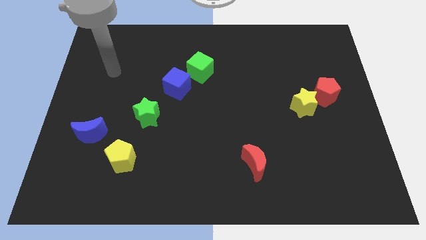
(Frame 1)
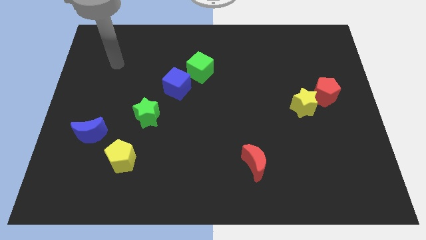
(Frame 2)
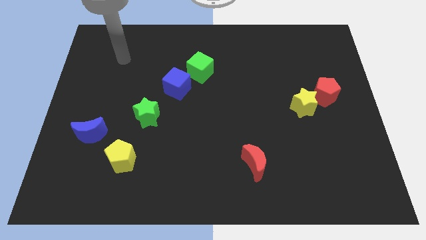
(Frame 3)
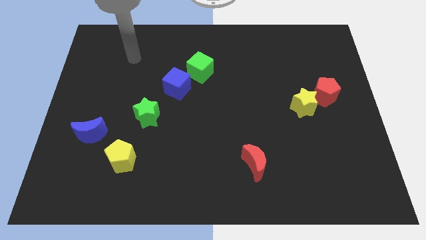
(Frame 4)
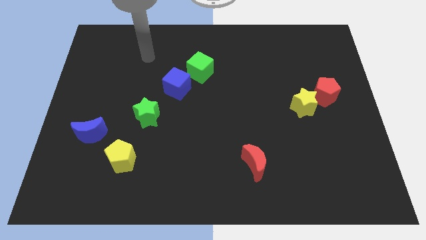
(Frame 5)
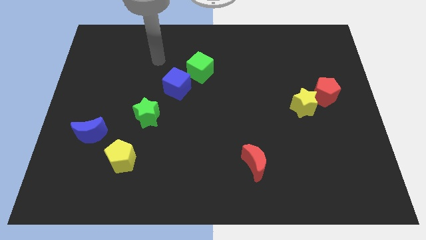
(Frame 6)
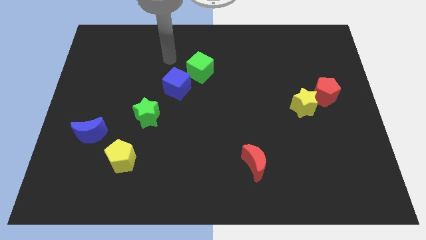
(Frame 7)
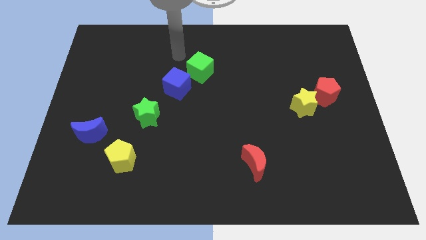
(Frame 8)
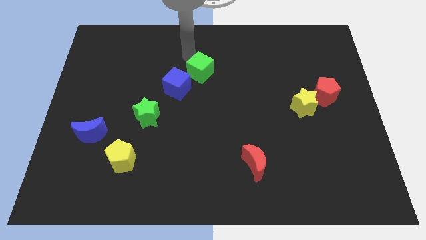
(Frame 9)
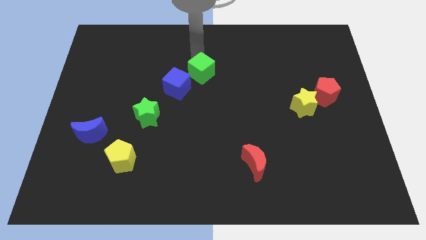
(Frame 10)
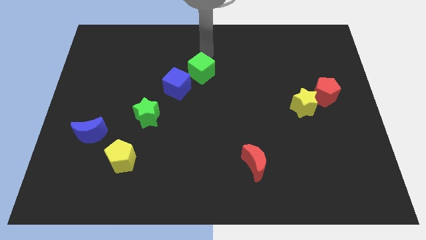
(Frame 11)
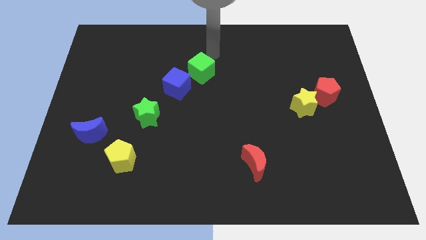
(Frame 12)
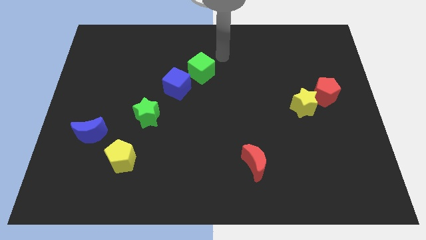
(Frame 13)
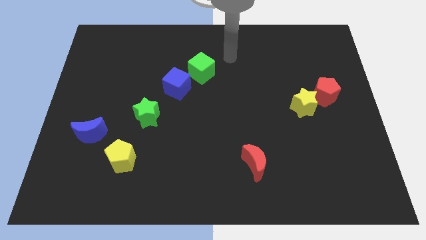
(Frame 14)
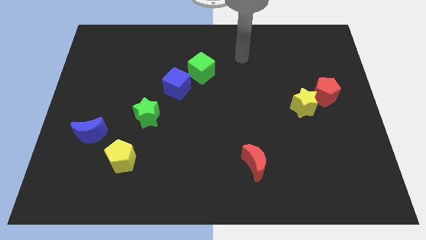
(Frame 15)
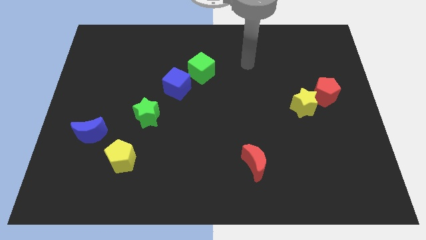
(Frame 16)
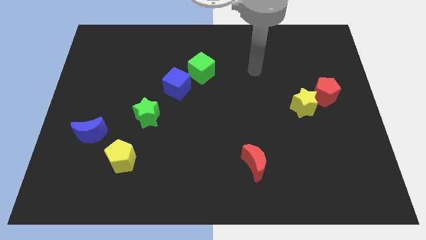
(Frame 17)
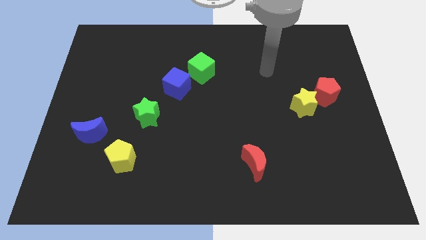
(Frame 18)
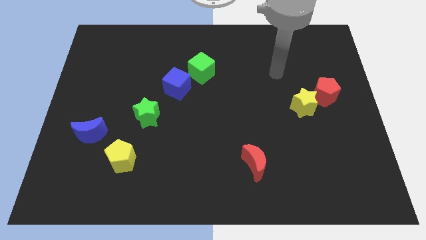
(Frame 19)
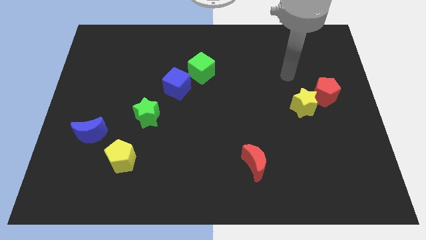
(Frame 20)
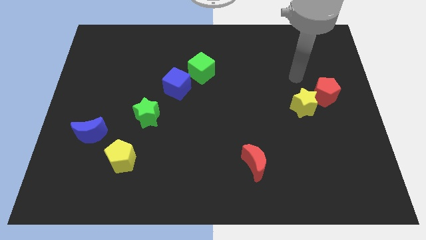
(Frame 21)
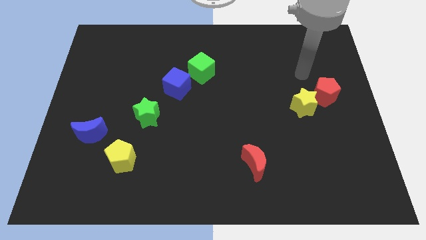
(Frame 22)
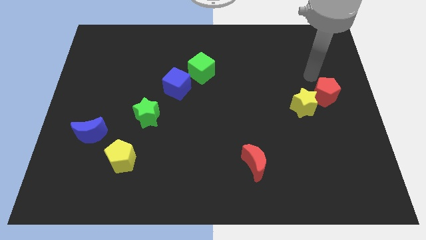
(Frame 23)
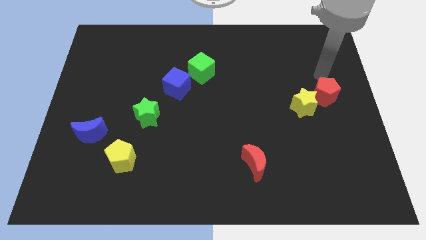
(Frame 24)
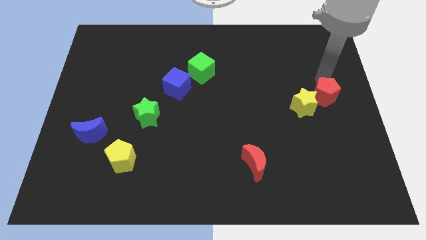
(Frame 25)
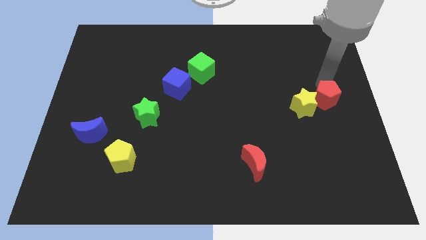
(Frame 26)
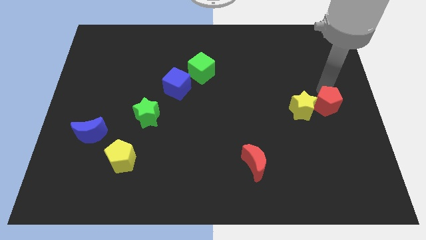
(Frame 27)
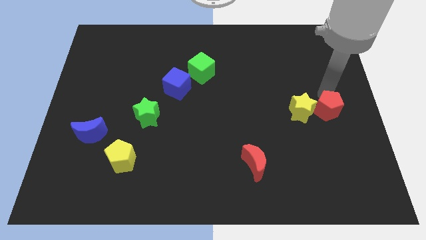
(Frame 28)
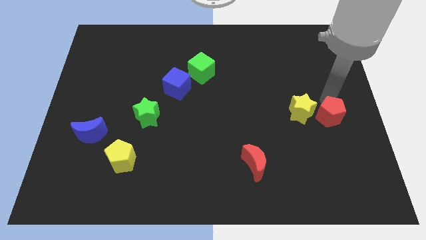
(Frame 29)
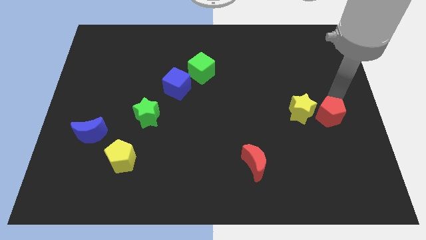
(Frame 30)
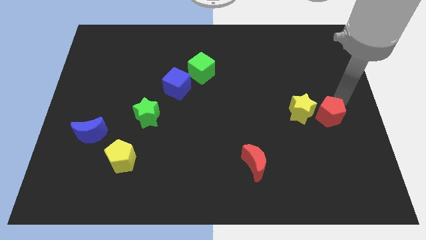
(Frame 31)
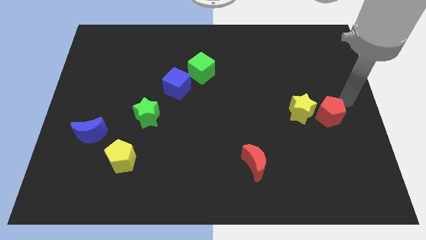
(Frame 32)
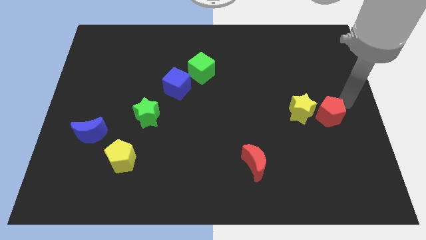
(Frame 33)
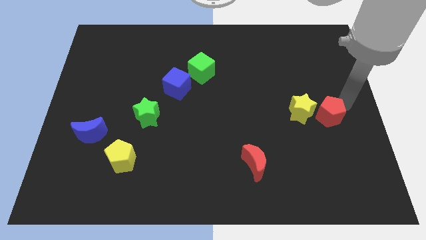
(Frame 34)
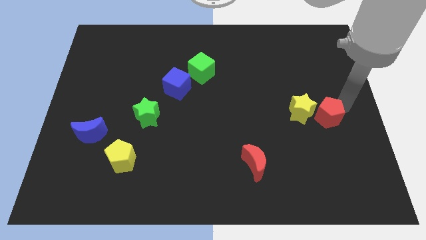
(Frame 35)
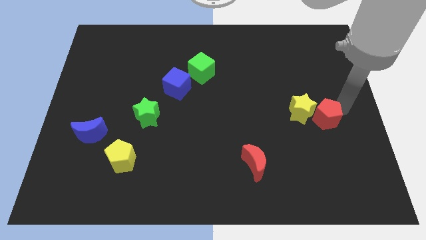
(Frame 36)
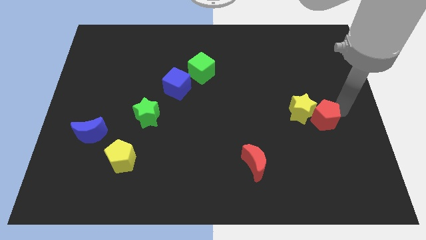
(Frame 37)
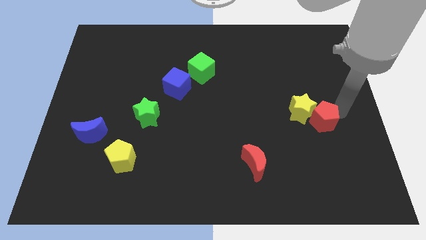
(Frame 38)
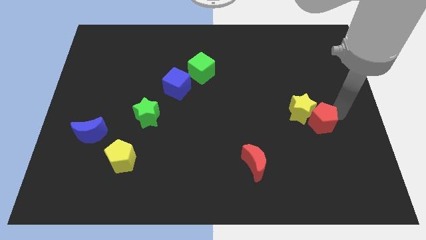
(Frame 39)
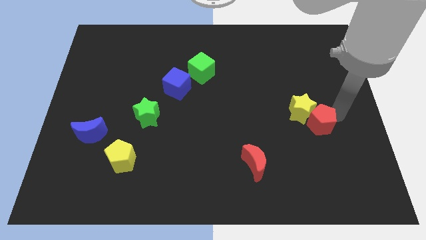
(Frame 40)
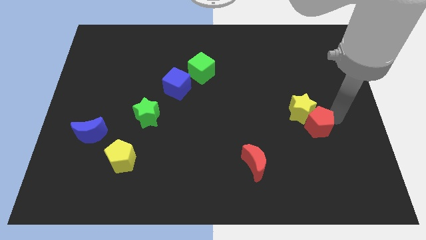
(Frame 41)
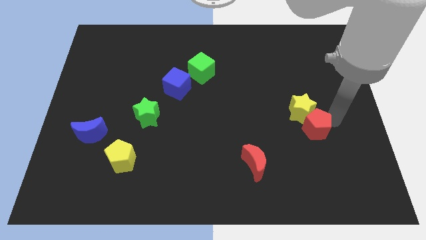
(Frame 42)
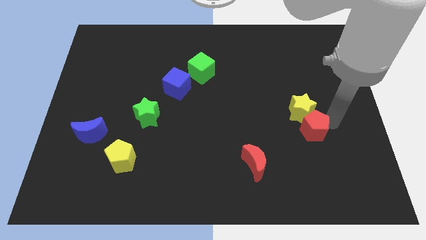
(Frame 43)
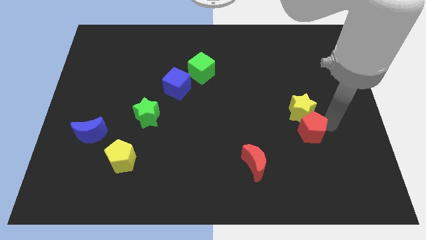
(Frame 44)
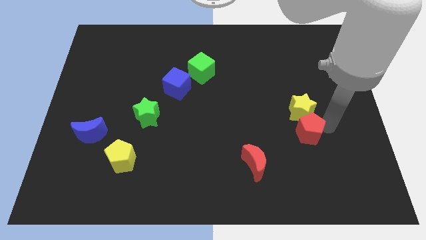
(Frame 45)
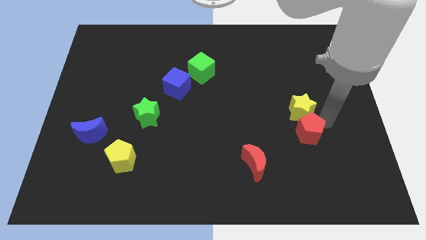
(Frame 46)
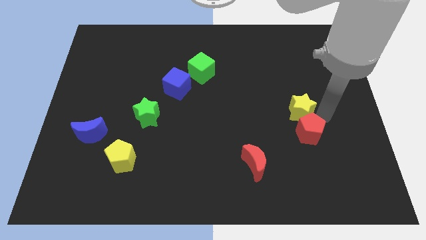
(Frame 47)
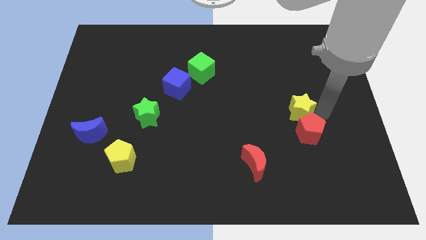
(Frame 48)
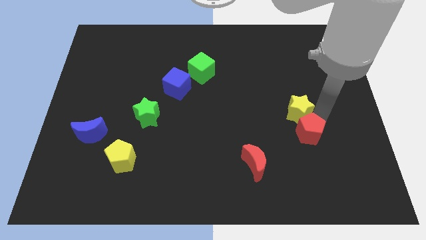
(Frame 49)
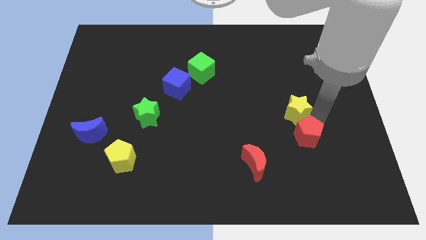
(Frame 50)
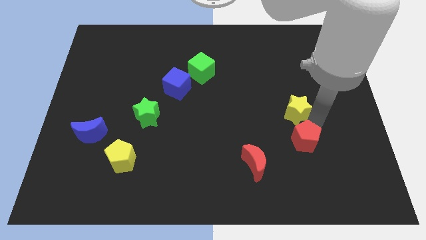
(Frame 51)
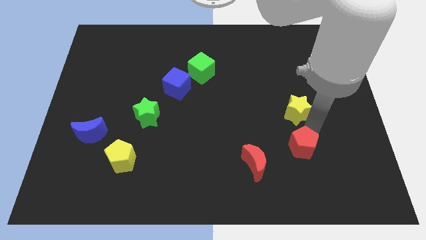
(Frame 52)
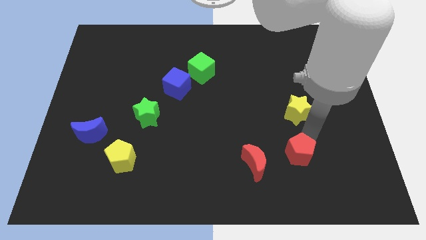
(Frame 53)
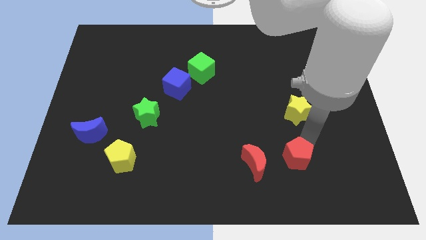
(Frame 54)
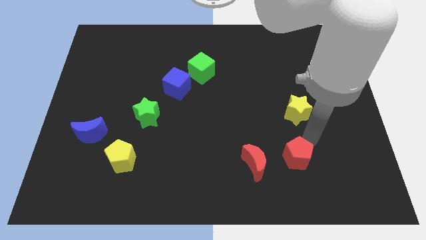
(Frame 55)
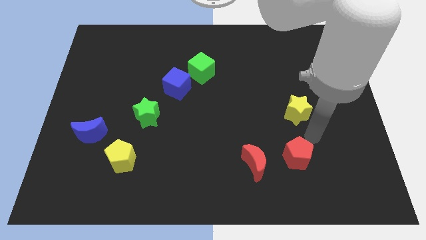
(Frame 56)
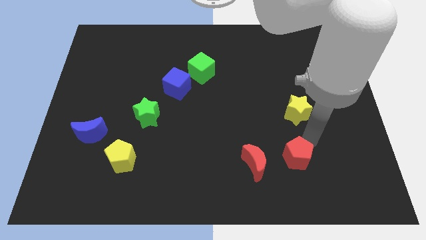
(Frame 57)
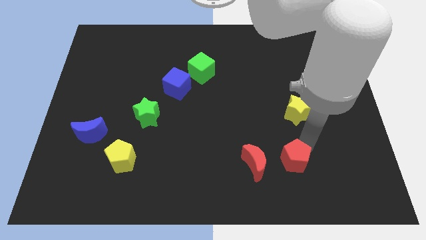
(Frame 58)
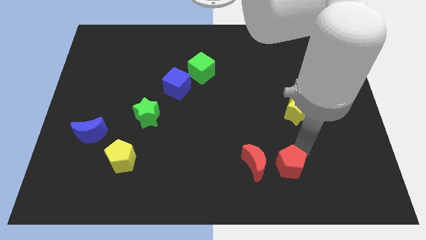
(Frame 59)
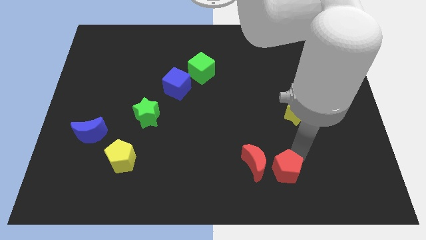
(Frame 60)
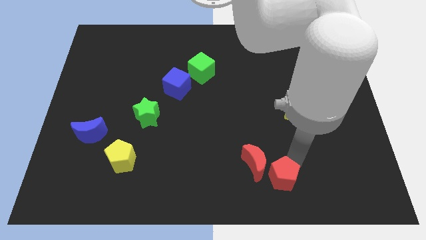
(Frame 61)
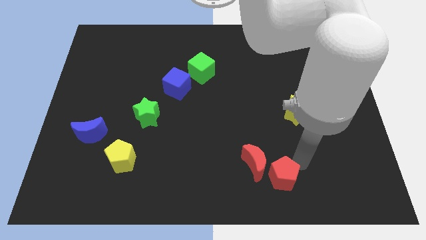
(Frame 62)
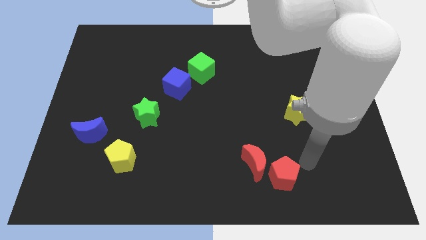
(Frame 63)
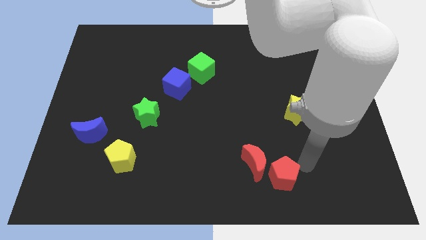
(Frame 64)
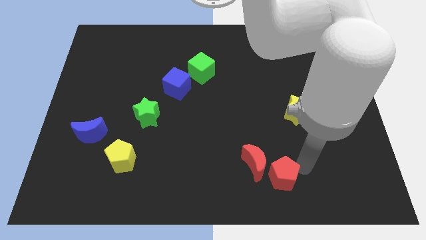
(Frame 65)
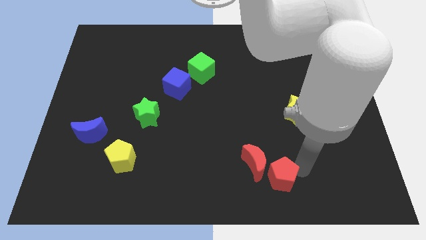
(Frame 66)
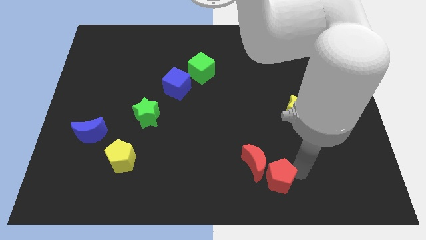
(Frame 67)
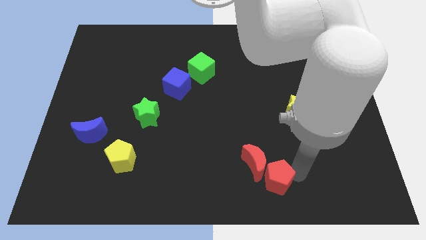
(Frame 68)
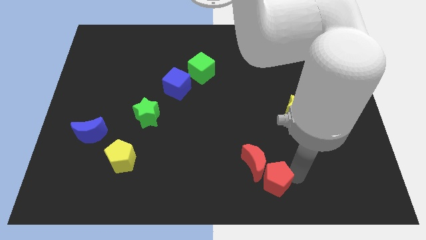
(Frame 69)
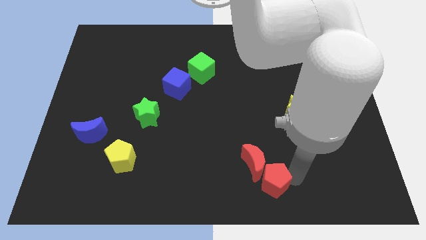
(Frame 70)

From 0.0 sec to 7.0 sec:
move the red pentagon to the bottom
